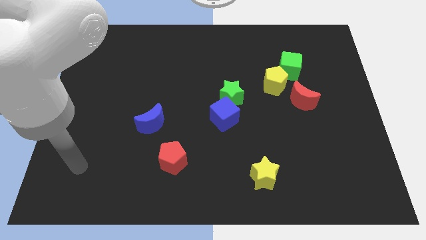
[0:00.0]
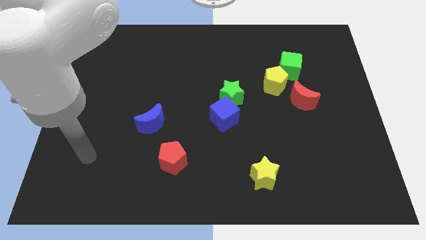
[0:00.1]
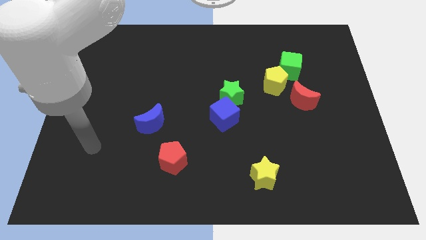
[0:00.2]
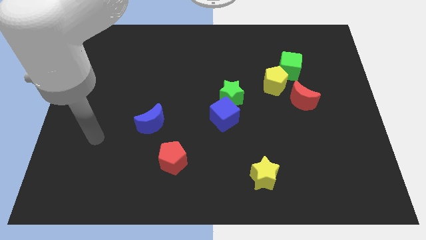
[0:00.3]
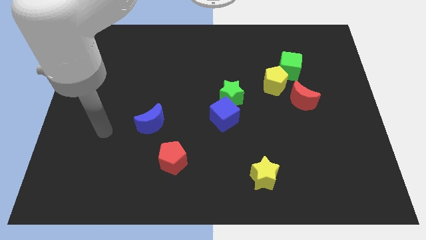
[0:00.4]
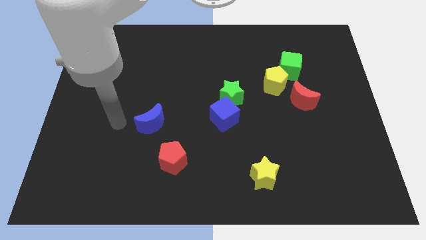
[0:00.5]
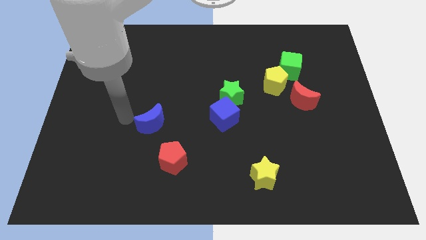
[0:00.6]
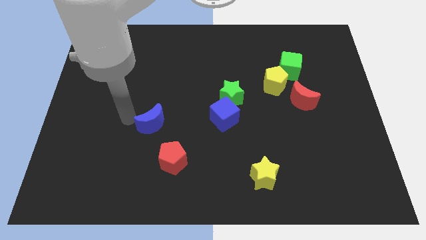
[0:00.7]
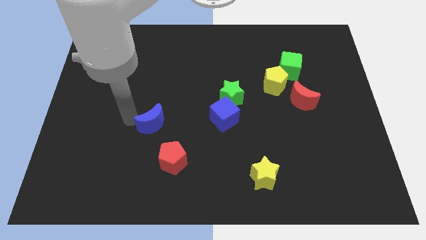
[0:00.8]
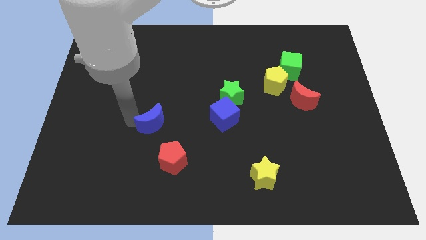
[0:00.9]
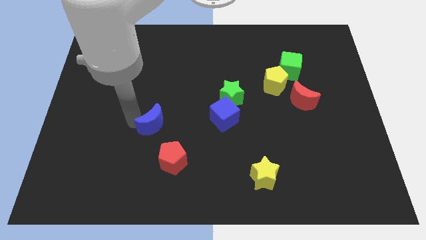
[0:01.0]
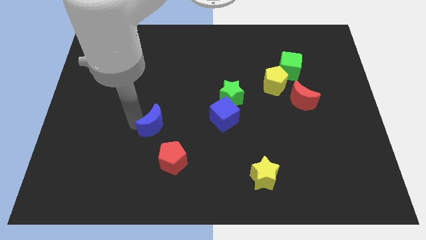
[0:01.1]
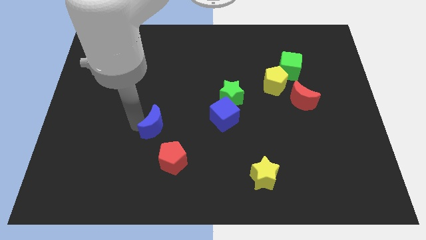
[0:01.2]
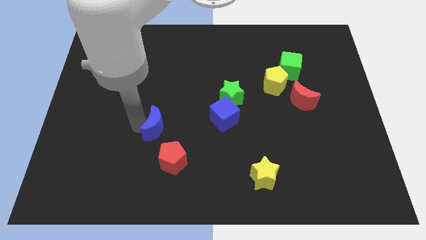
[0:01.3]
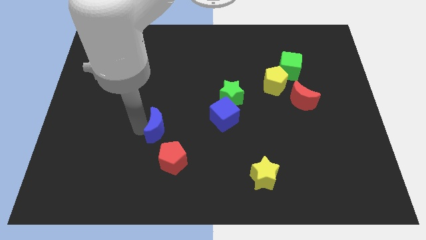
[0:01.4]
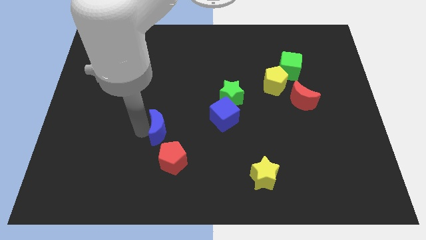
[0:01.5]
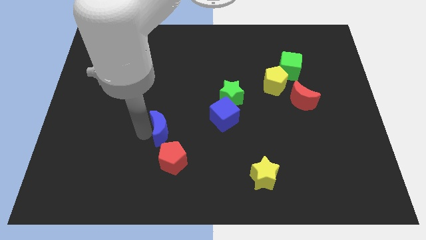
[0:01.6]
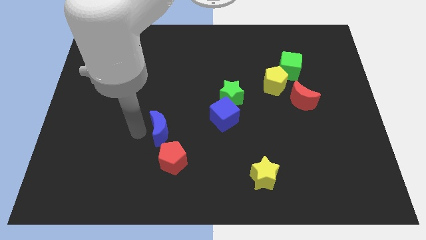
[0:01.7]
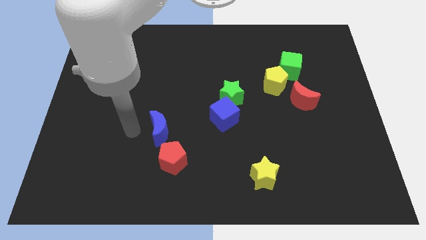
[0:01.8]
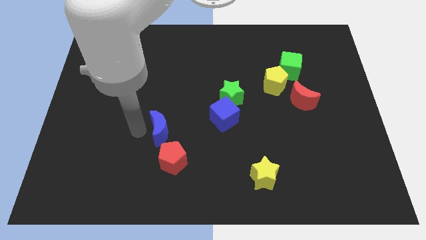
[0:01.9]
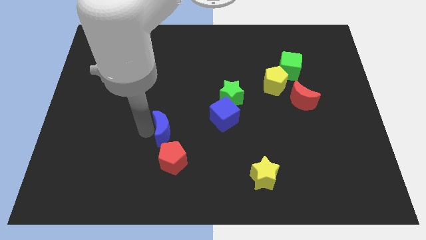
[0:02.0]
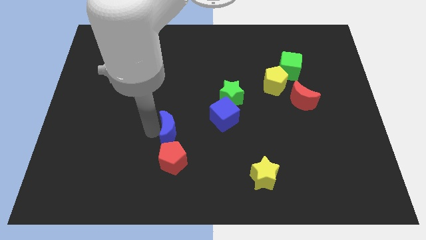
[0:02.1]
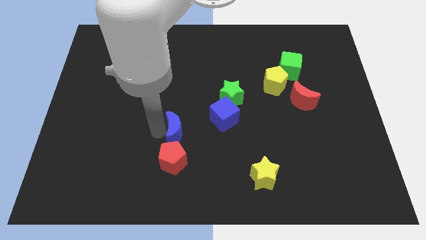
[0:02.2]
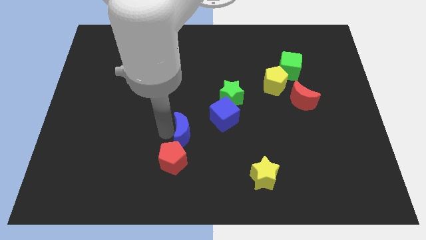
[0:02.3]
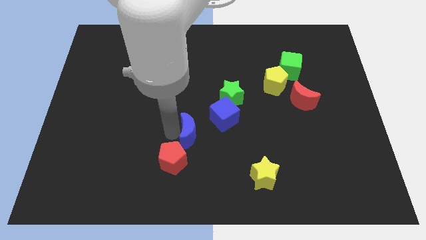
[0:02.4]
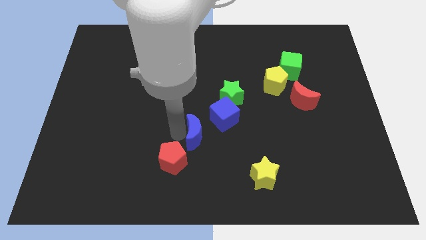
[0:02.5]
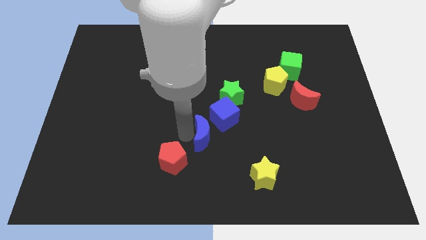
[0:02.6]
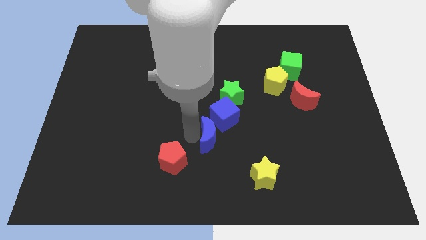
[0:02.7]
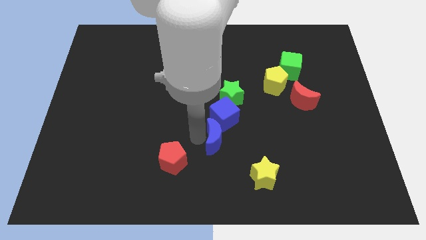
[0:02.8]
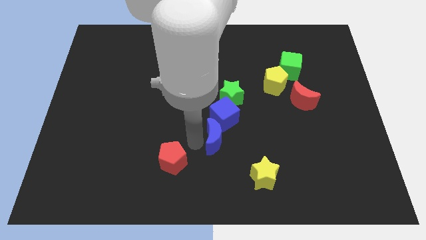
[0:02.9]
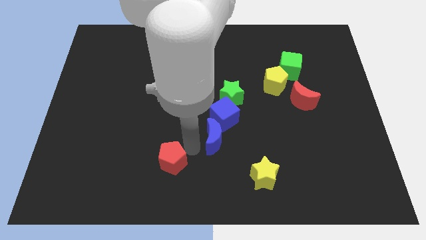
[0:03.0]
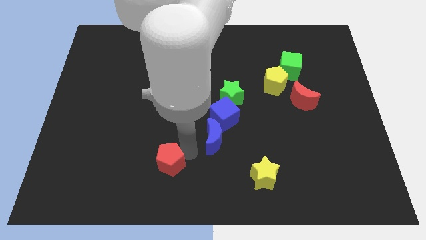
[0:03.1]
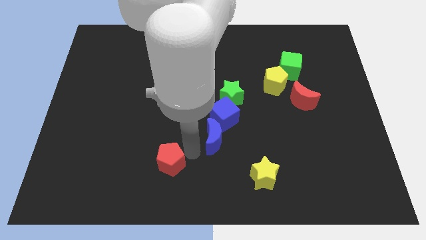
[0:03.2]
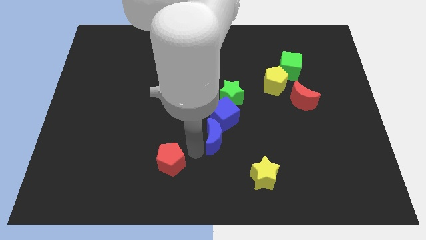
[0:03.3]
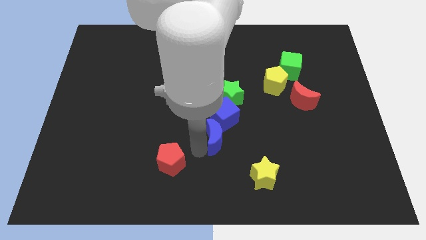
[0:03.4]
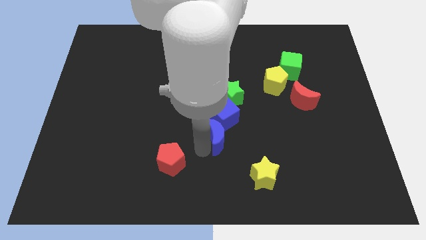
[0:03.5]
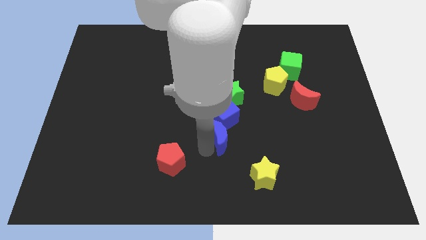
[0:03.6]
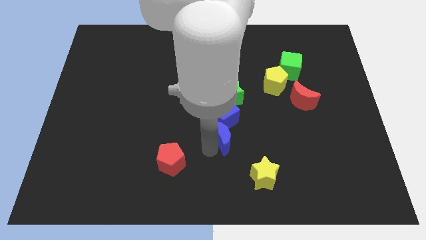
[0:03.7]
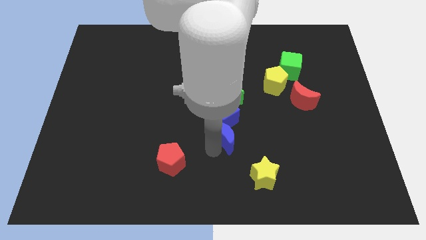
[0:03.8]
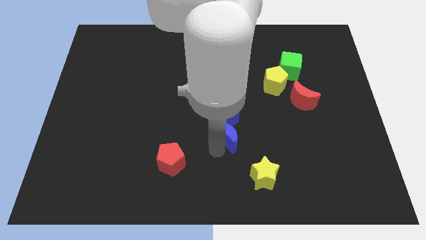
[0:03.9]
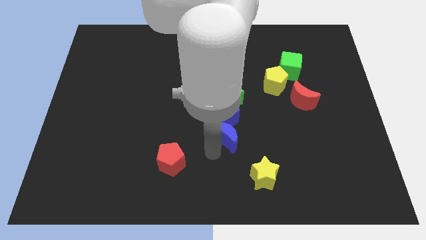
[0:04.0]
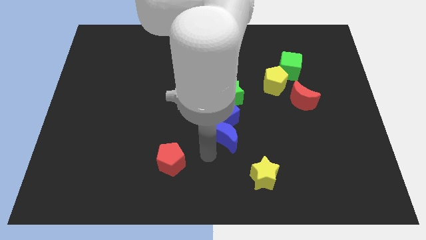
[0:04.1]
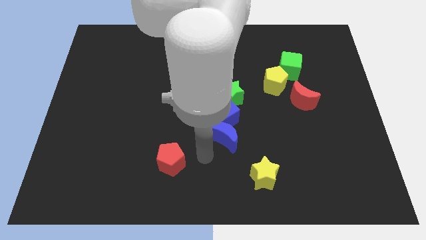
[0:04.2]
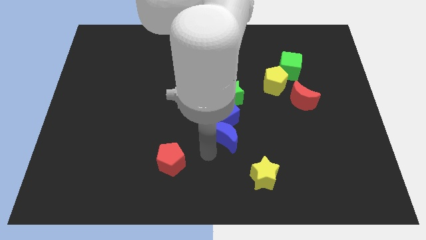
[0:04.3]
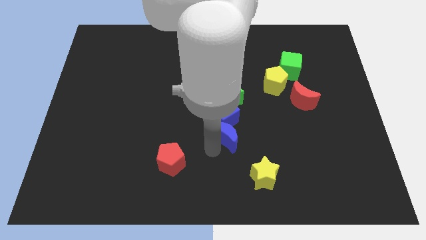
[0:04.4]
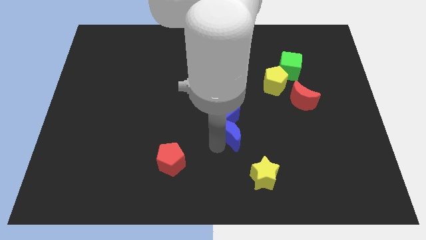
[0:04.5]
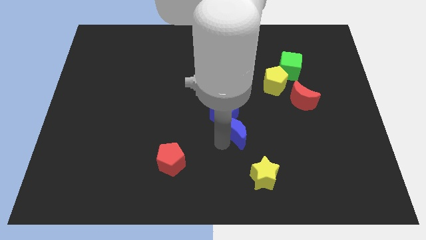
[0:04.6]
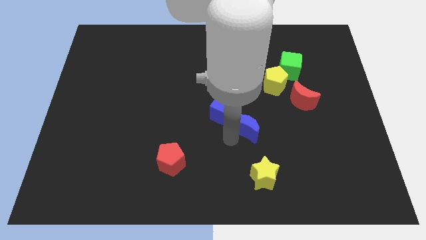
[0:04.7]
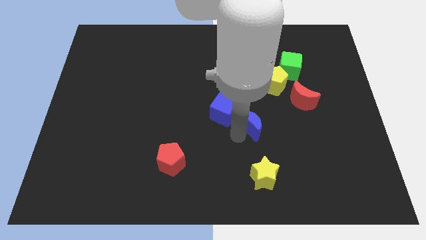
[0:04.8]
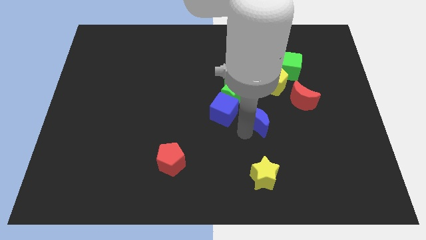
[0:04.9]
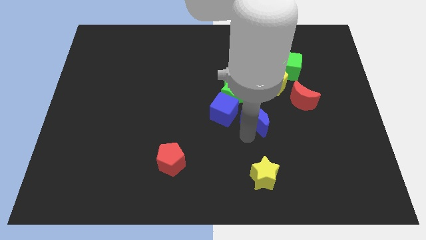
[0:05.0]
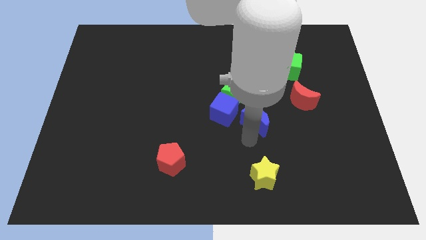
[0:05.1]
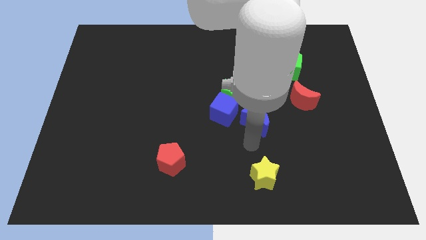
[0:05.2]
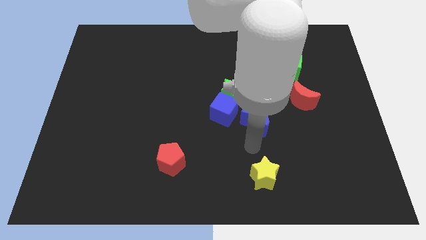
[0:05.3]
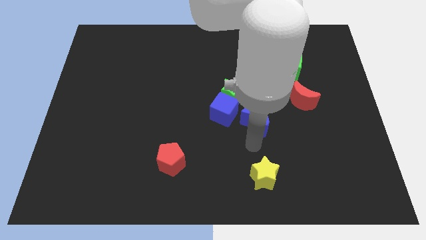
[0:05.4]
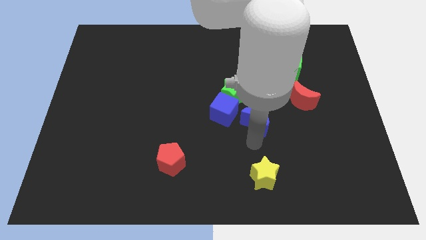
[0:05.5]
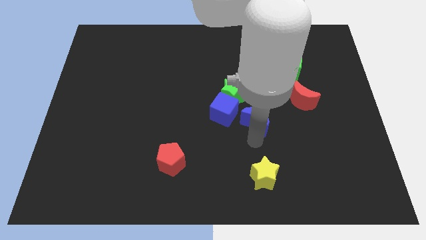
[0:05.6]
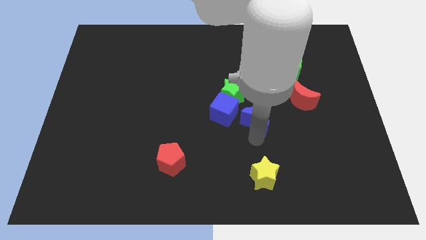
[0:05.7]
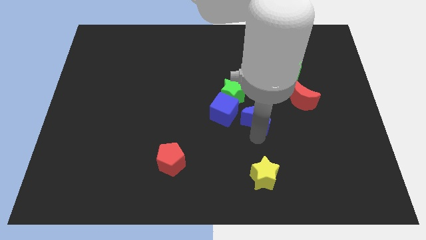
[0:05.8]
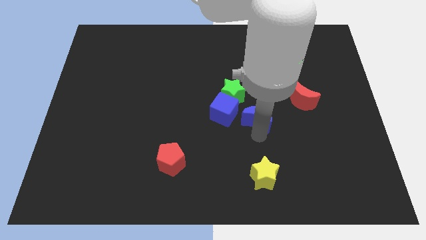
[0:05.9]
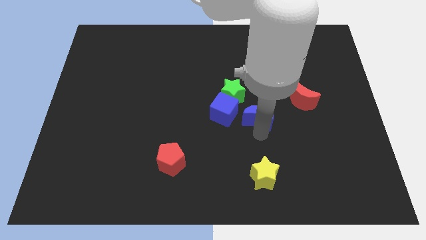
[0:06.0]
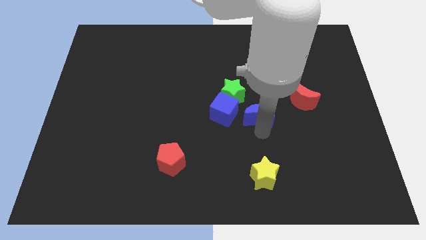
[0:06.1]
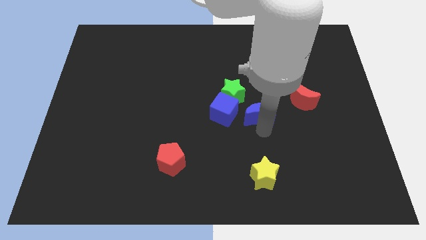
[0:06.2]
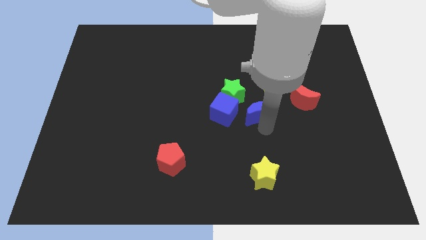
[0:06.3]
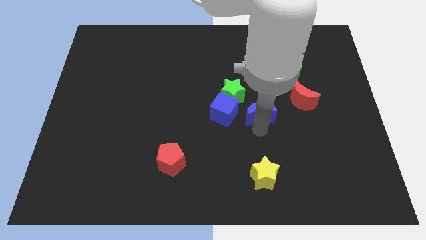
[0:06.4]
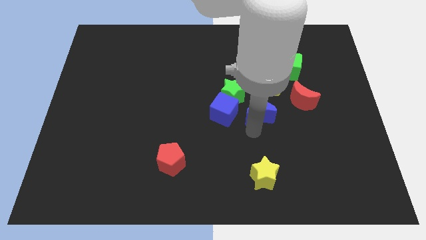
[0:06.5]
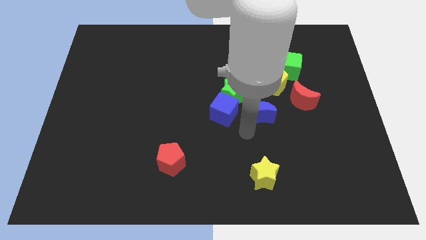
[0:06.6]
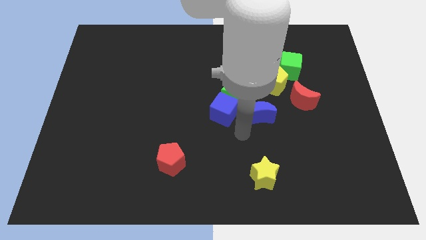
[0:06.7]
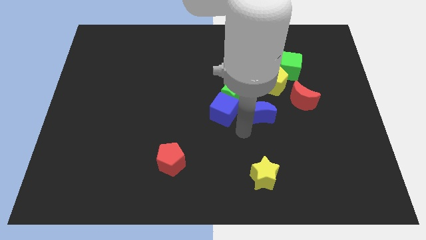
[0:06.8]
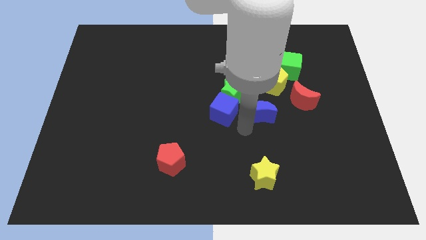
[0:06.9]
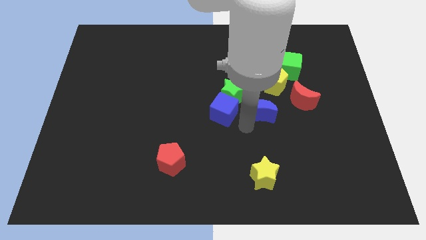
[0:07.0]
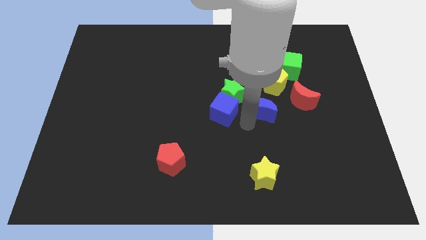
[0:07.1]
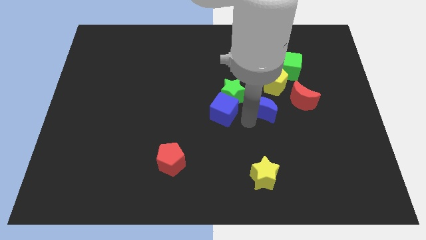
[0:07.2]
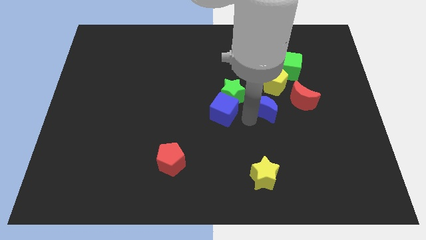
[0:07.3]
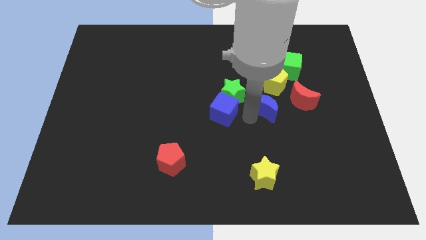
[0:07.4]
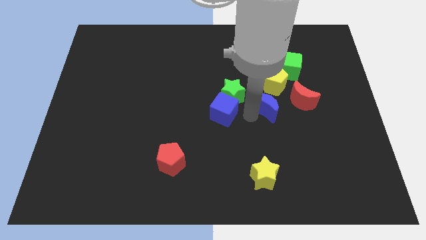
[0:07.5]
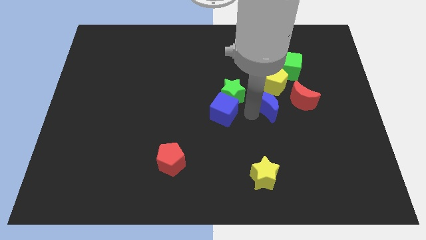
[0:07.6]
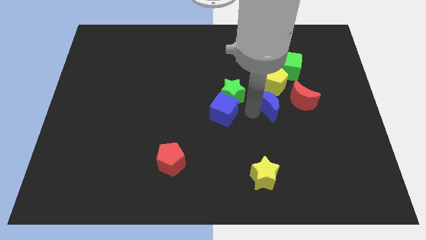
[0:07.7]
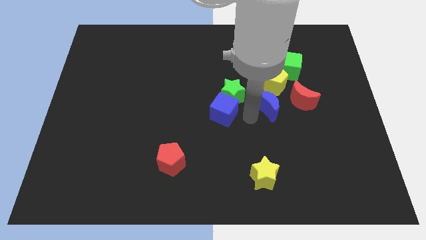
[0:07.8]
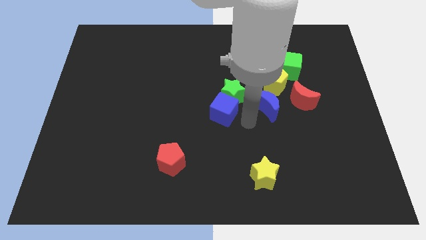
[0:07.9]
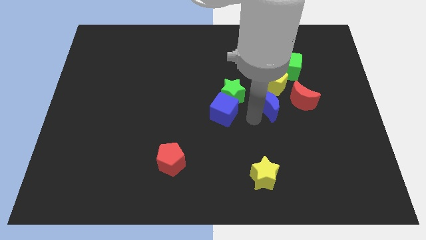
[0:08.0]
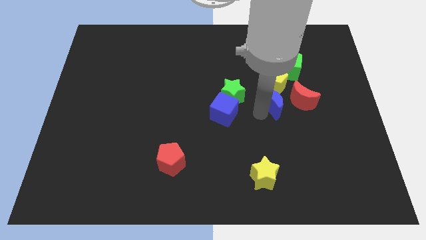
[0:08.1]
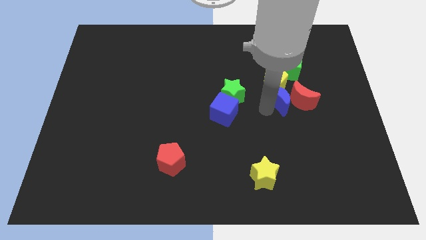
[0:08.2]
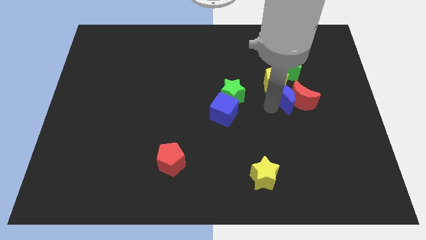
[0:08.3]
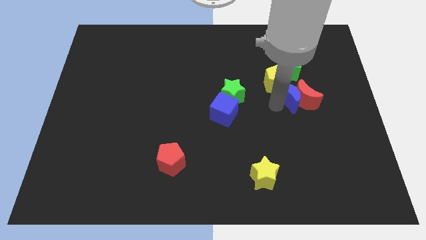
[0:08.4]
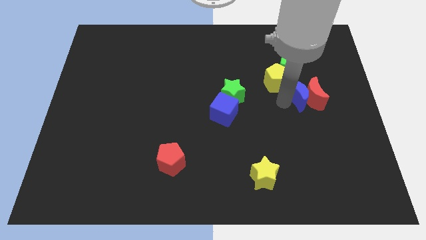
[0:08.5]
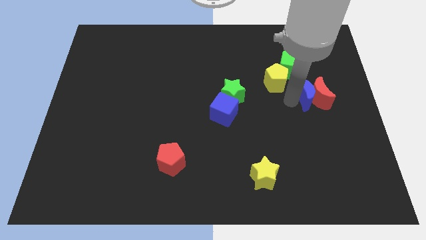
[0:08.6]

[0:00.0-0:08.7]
slide the blue moon to the bottom right of the green cube
